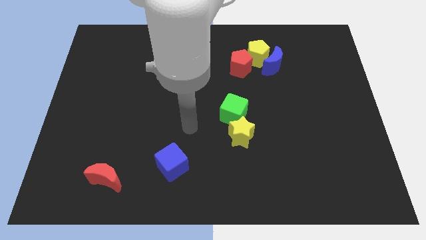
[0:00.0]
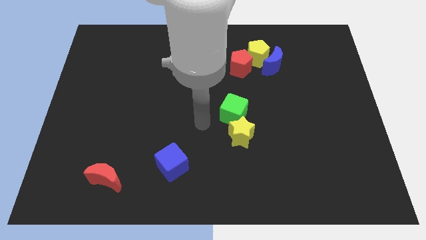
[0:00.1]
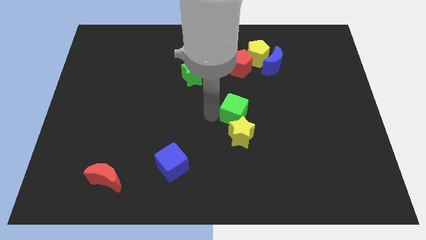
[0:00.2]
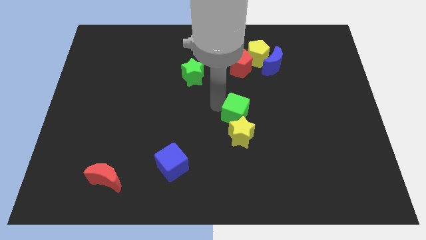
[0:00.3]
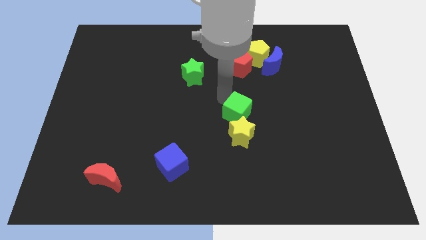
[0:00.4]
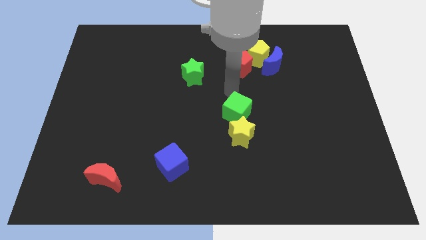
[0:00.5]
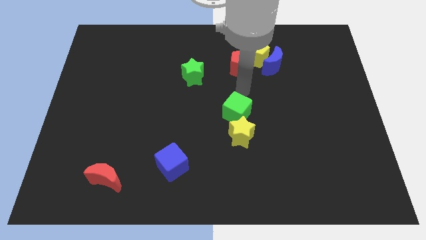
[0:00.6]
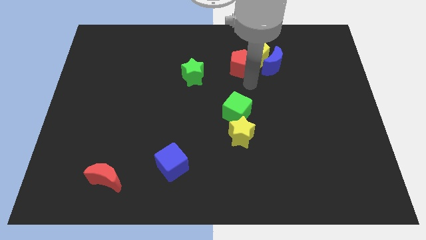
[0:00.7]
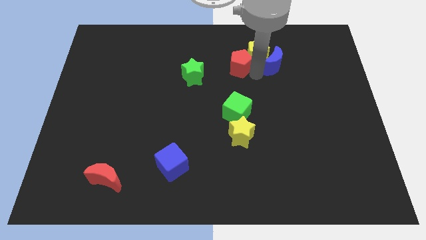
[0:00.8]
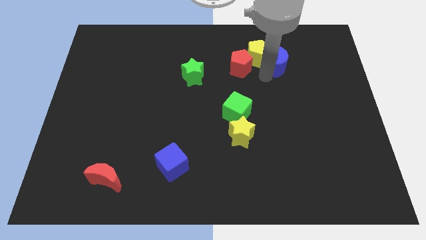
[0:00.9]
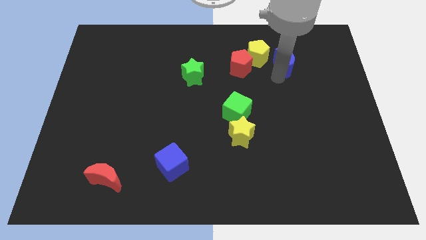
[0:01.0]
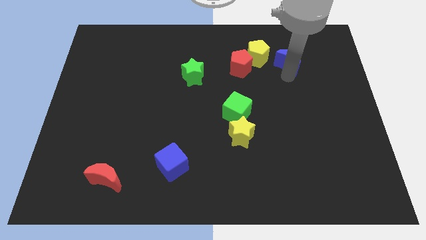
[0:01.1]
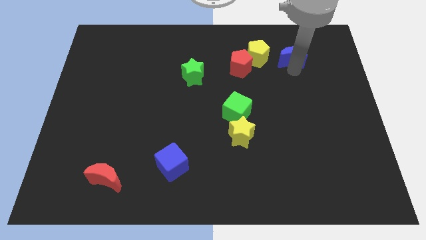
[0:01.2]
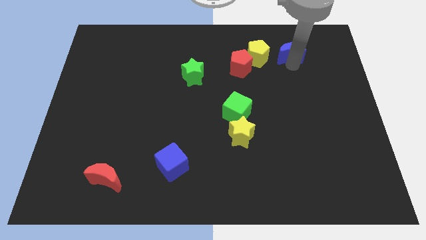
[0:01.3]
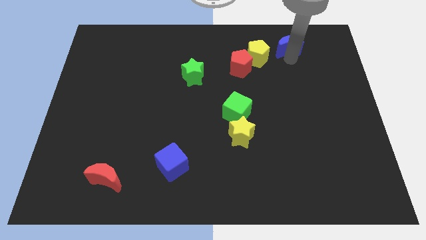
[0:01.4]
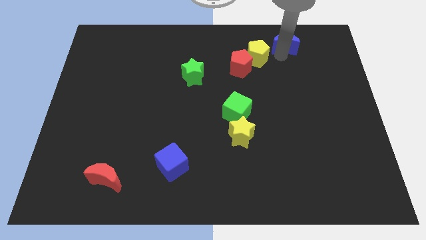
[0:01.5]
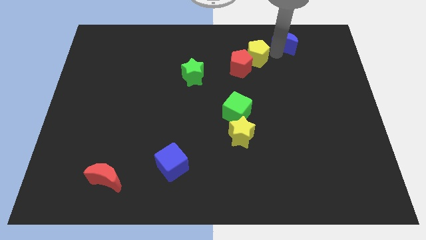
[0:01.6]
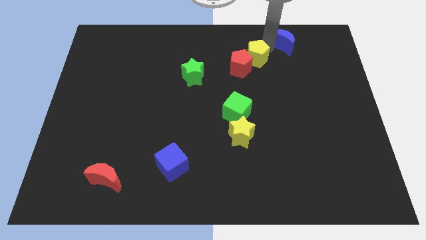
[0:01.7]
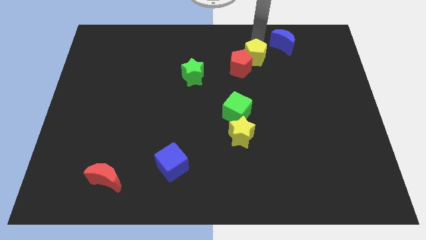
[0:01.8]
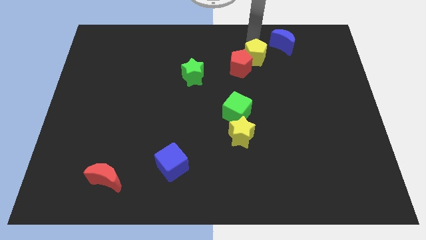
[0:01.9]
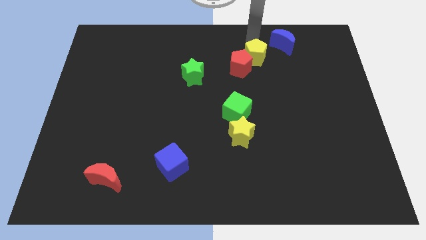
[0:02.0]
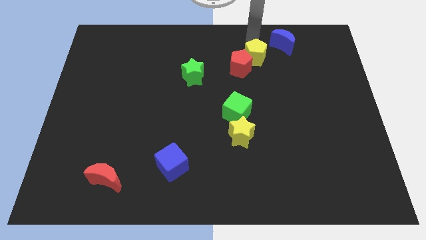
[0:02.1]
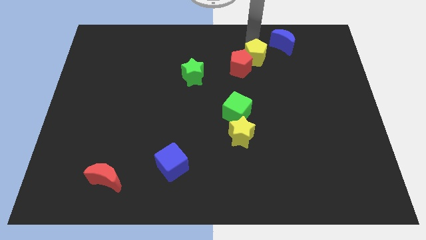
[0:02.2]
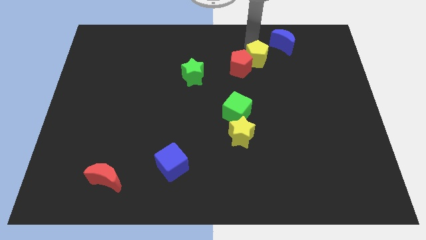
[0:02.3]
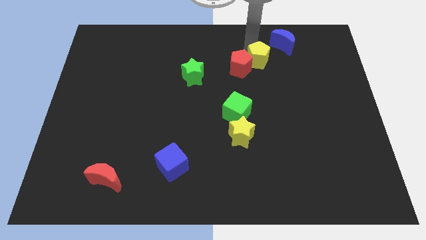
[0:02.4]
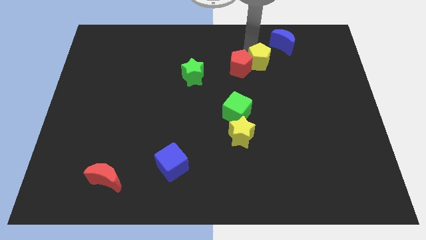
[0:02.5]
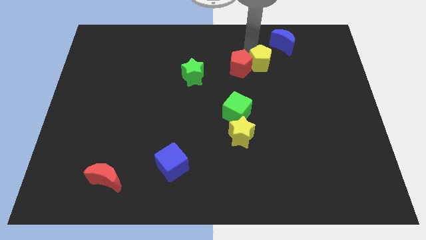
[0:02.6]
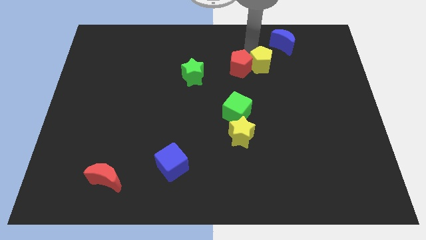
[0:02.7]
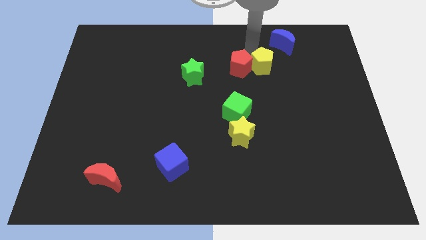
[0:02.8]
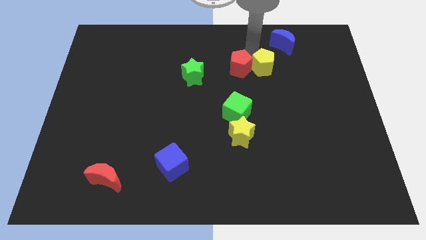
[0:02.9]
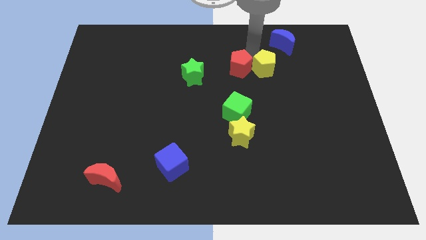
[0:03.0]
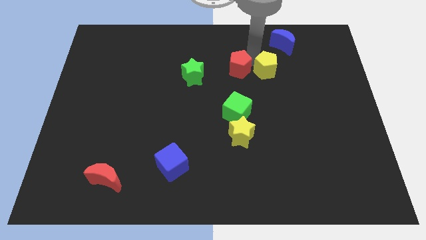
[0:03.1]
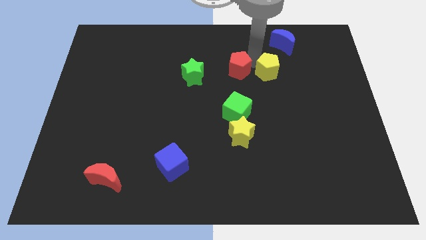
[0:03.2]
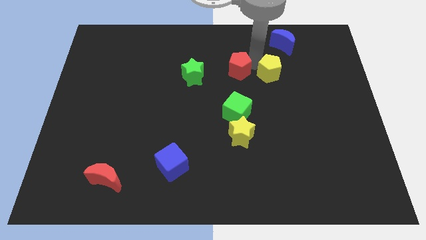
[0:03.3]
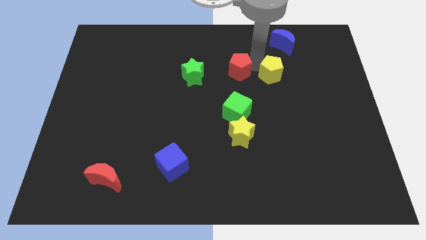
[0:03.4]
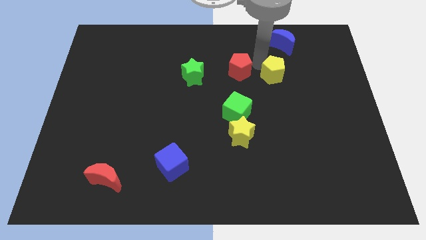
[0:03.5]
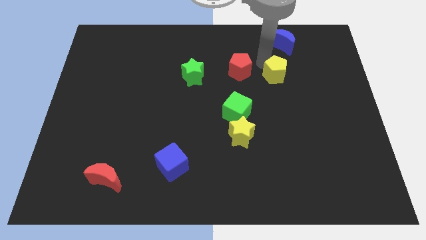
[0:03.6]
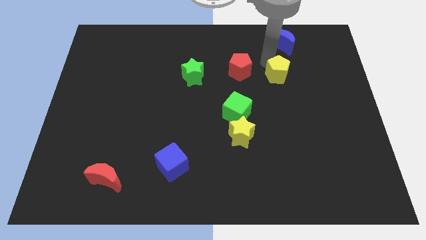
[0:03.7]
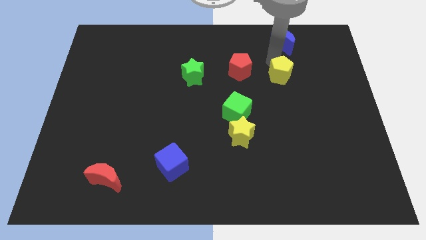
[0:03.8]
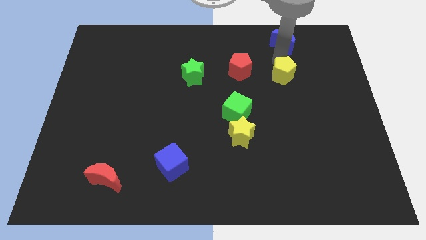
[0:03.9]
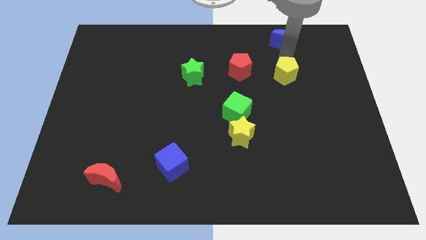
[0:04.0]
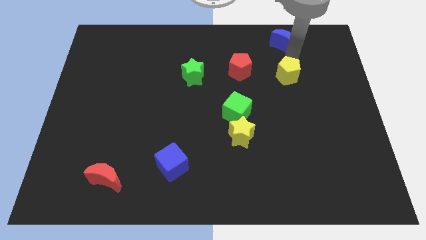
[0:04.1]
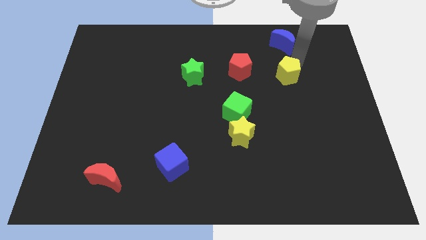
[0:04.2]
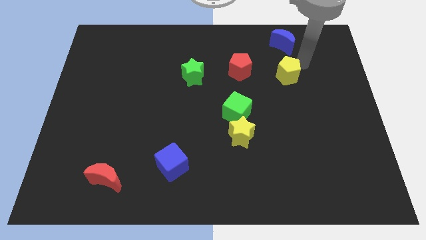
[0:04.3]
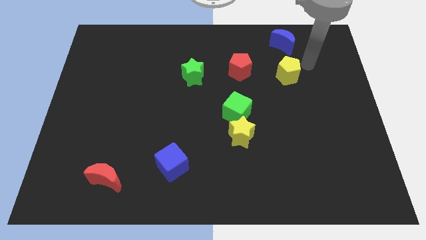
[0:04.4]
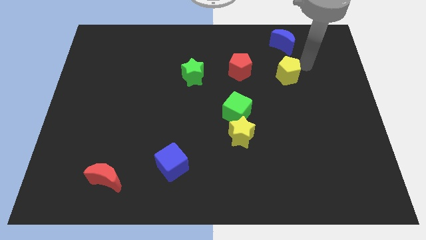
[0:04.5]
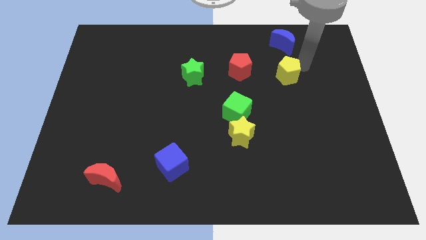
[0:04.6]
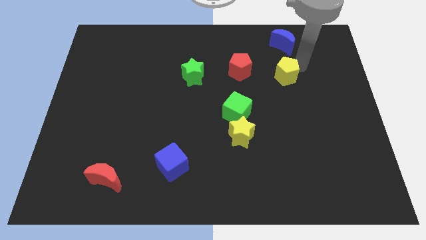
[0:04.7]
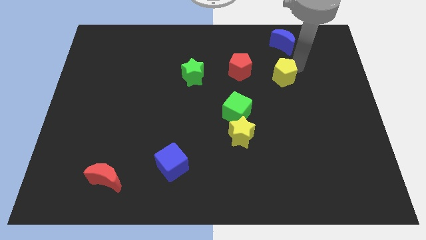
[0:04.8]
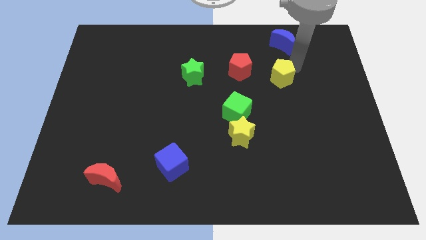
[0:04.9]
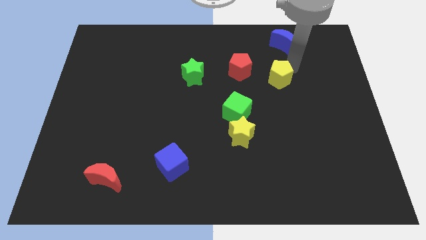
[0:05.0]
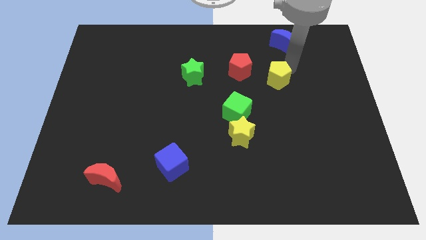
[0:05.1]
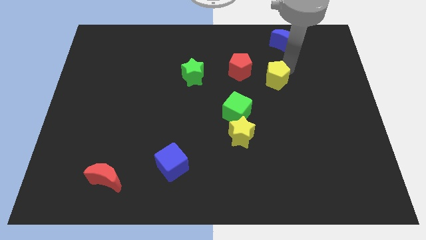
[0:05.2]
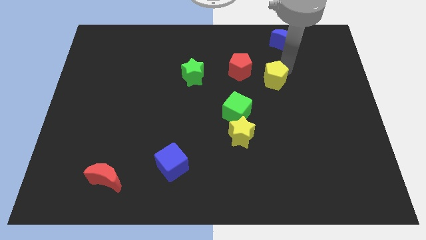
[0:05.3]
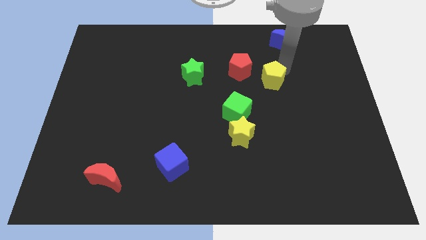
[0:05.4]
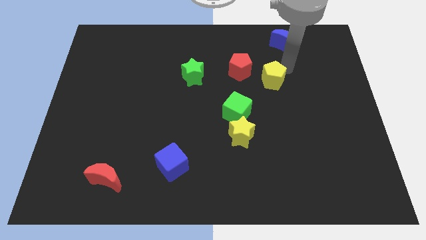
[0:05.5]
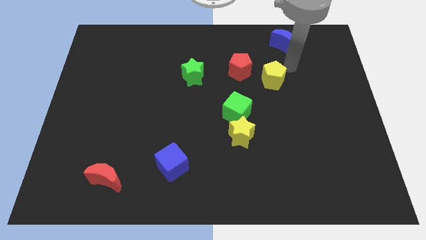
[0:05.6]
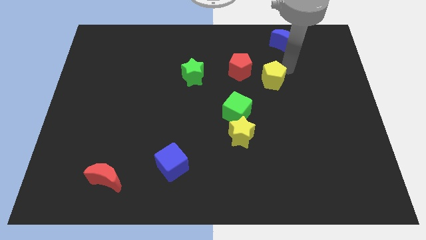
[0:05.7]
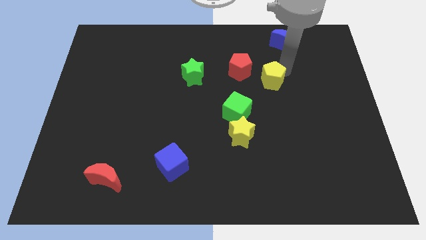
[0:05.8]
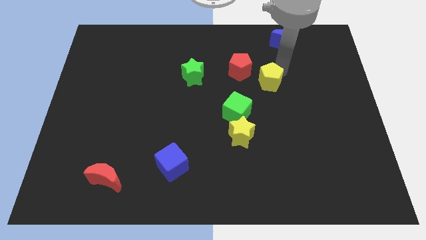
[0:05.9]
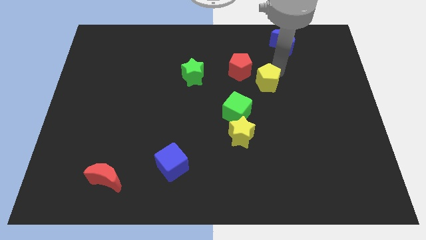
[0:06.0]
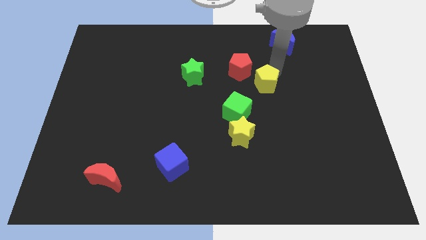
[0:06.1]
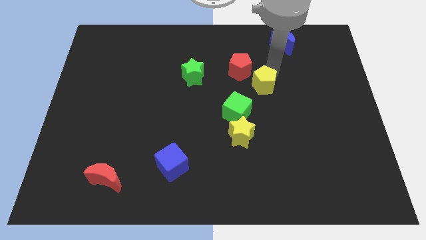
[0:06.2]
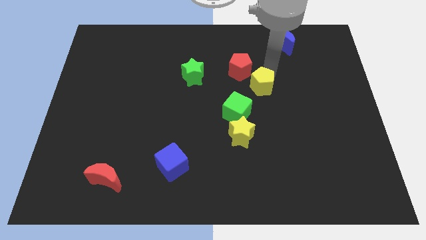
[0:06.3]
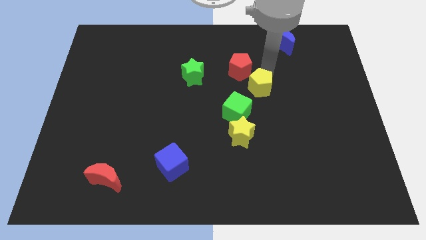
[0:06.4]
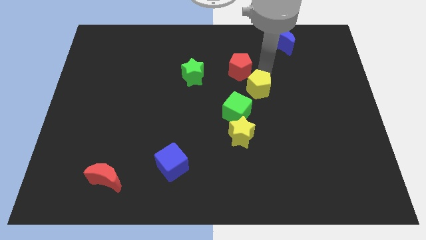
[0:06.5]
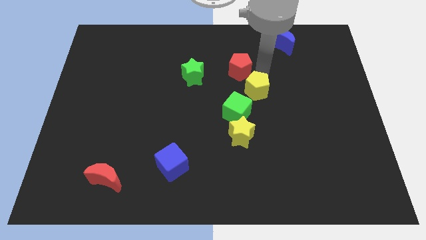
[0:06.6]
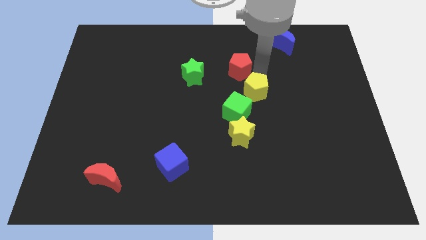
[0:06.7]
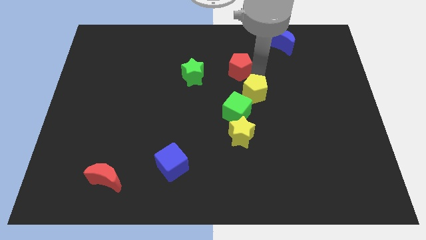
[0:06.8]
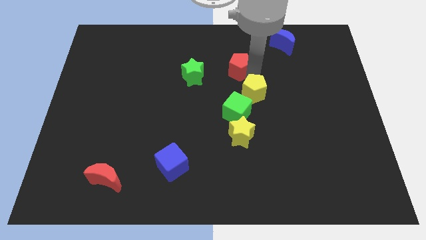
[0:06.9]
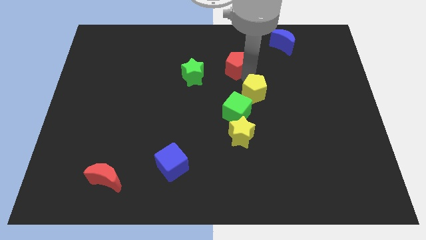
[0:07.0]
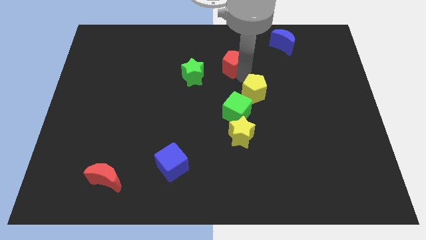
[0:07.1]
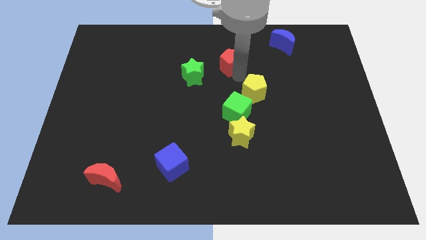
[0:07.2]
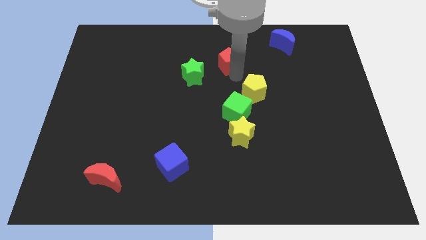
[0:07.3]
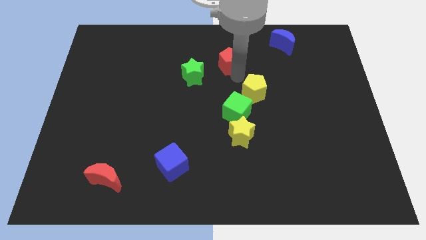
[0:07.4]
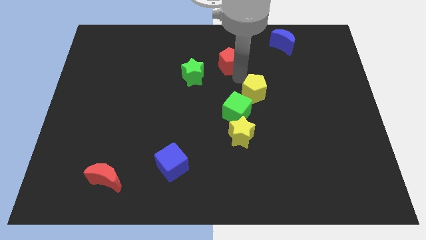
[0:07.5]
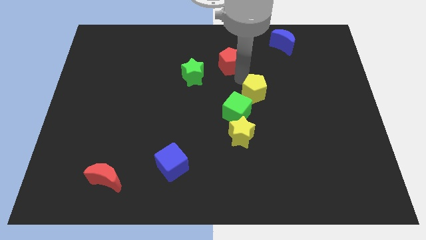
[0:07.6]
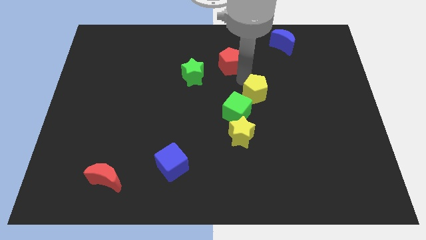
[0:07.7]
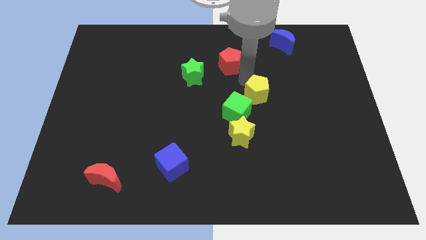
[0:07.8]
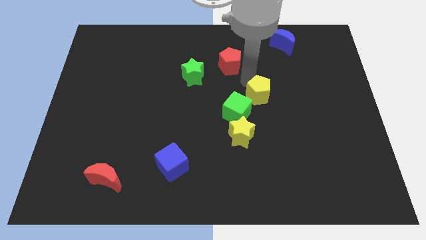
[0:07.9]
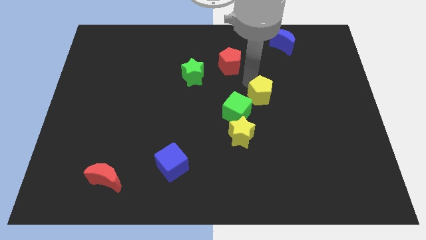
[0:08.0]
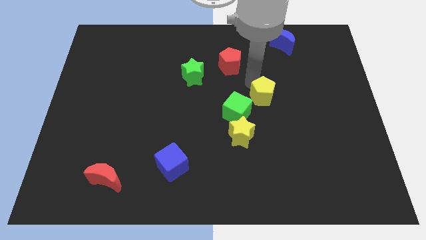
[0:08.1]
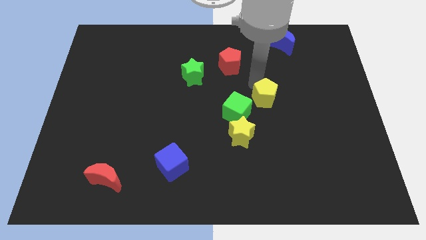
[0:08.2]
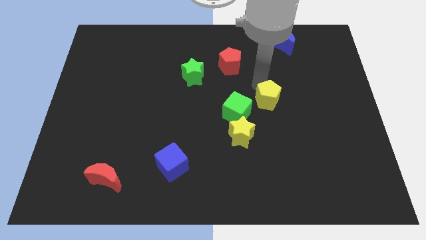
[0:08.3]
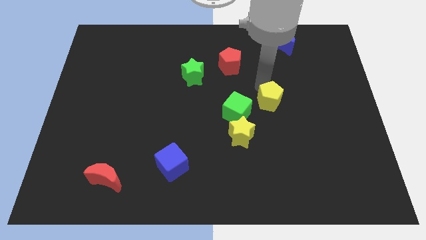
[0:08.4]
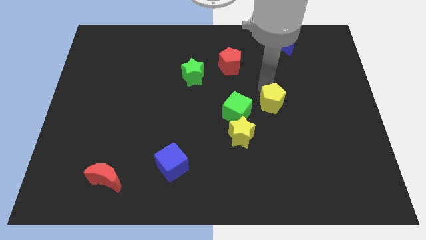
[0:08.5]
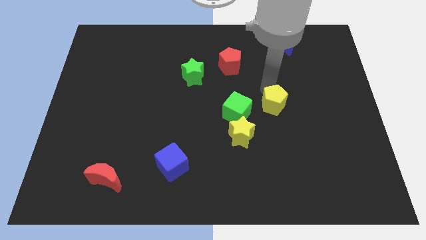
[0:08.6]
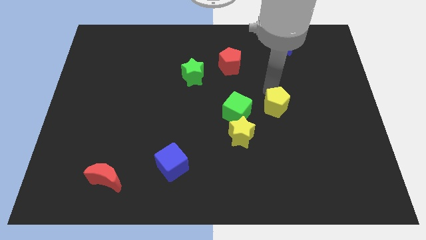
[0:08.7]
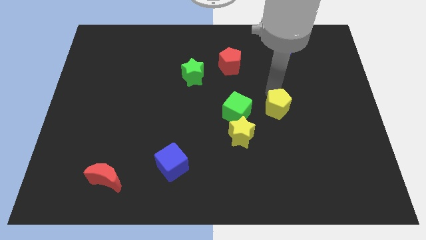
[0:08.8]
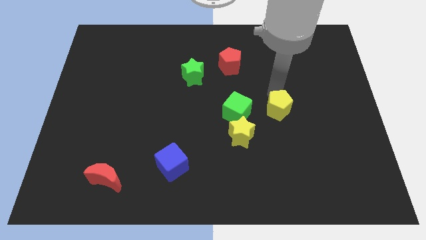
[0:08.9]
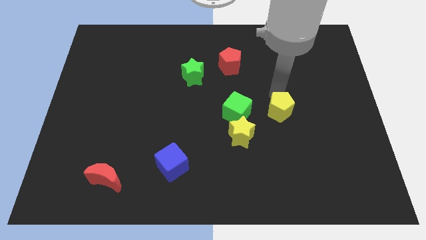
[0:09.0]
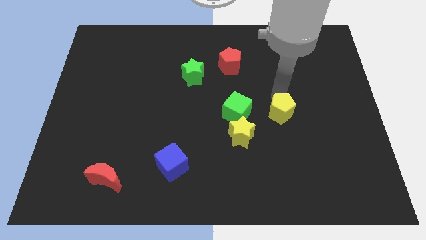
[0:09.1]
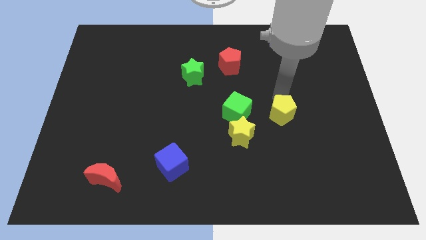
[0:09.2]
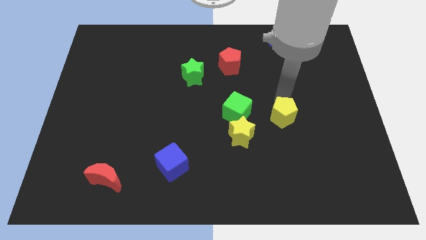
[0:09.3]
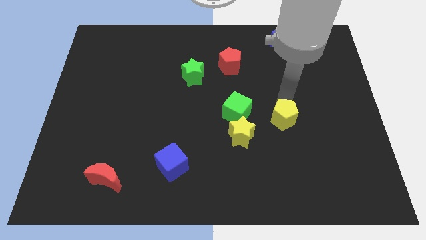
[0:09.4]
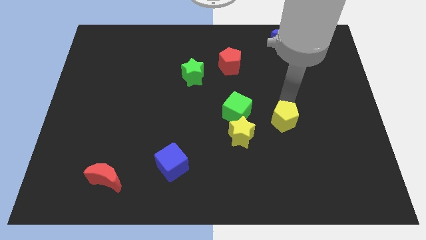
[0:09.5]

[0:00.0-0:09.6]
move the yellow pentagon just right of the yellow star
